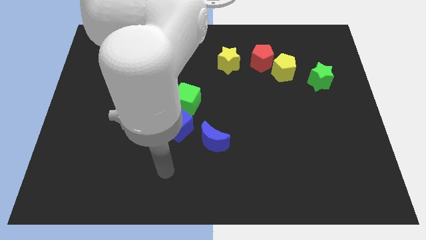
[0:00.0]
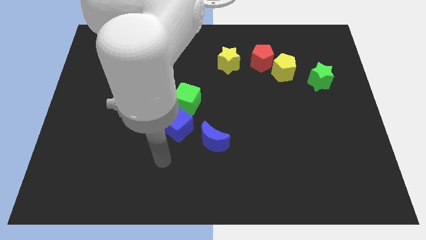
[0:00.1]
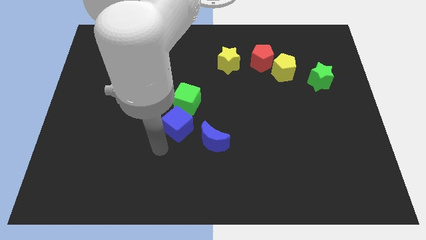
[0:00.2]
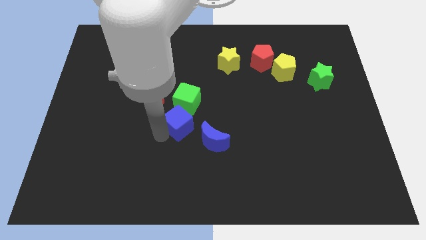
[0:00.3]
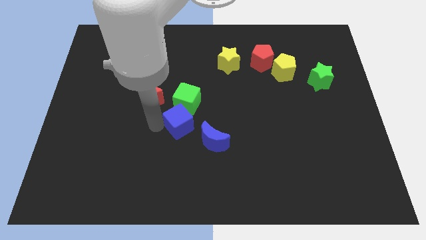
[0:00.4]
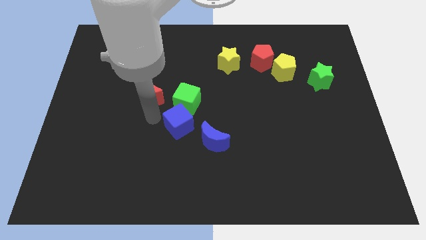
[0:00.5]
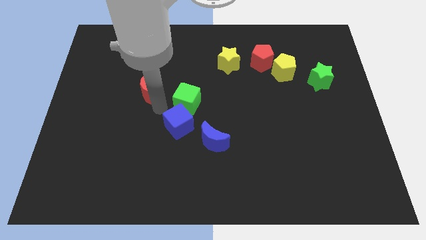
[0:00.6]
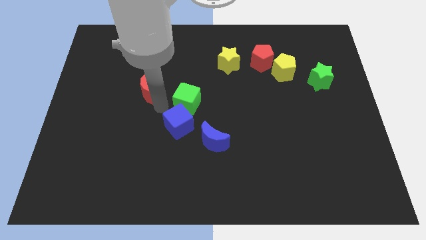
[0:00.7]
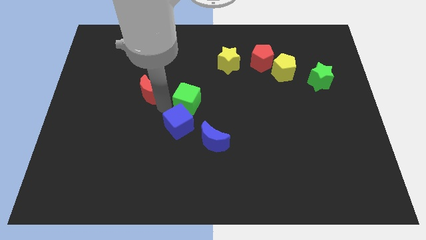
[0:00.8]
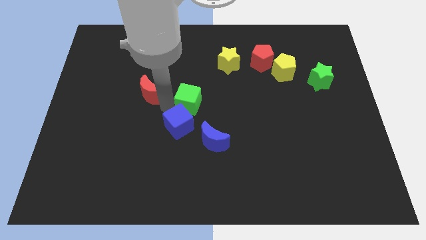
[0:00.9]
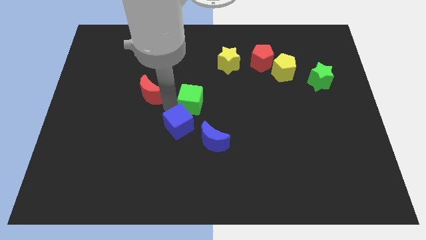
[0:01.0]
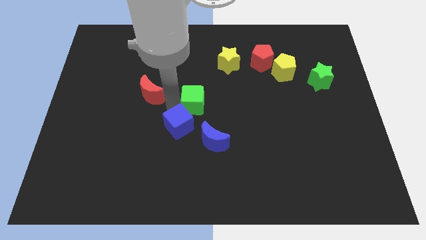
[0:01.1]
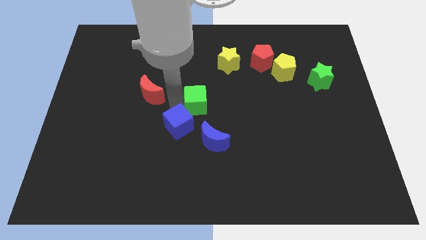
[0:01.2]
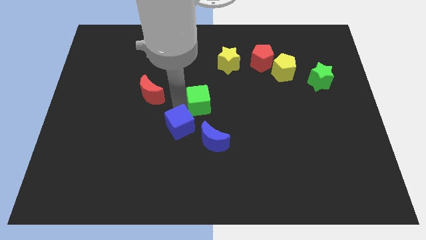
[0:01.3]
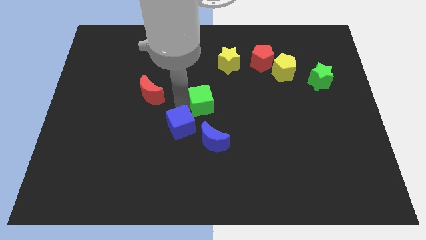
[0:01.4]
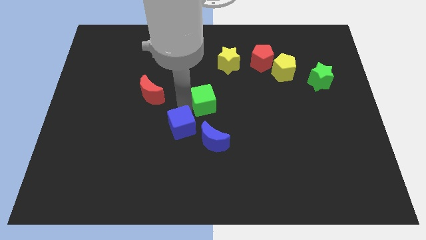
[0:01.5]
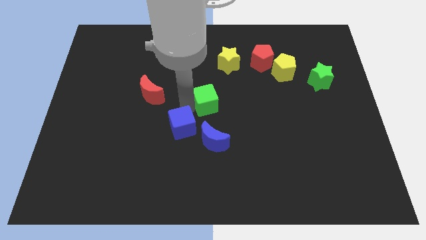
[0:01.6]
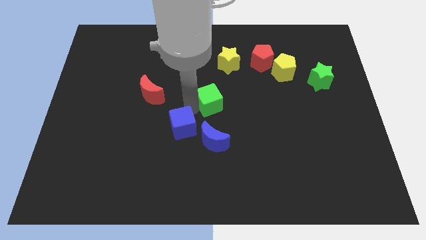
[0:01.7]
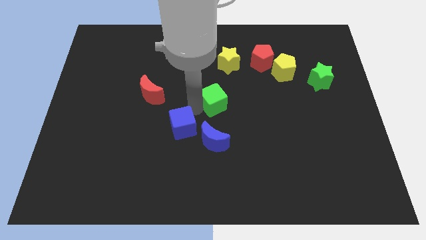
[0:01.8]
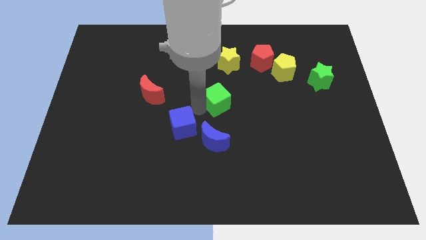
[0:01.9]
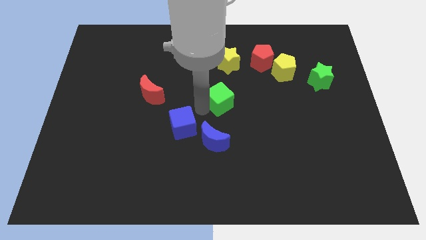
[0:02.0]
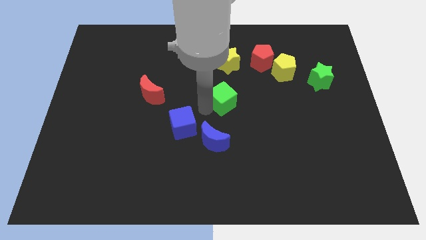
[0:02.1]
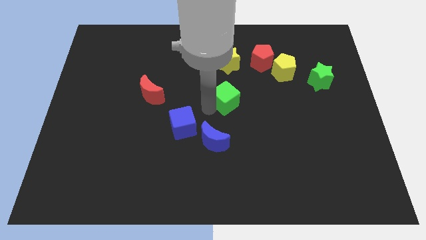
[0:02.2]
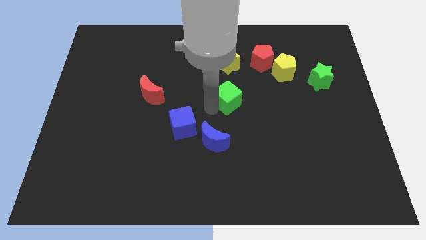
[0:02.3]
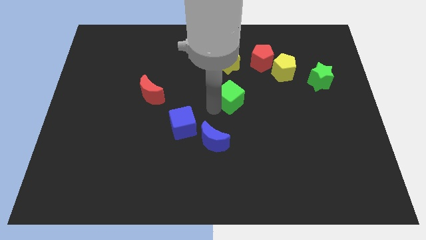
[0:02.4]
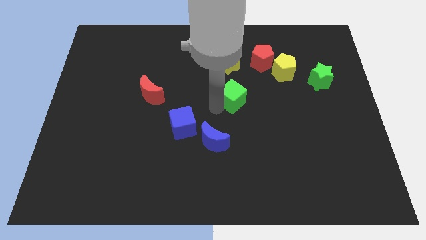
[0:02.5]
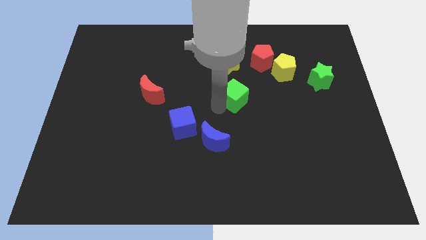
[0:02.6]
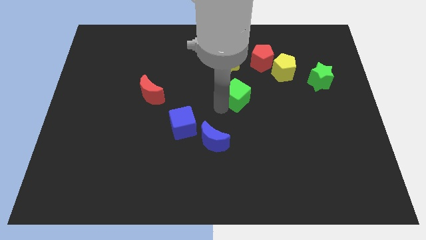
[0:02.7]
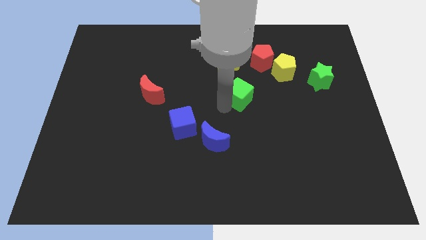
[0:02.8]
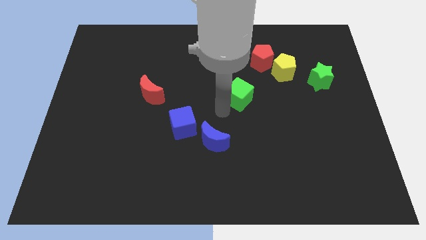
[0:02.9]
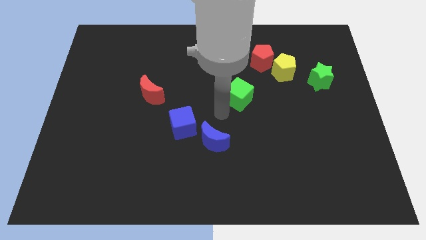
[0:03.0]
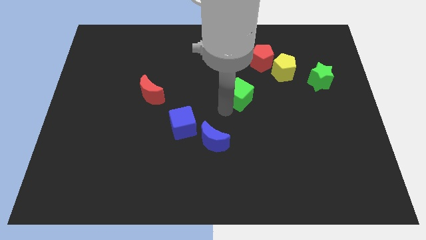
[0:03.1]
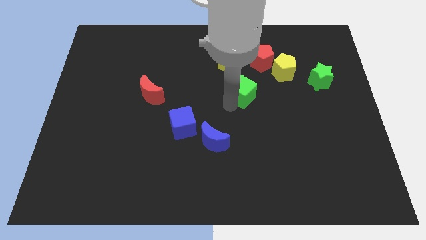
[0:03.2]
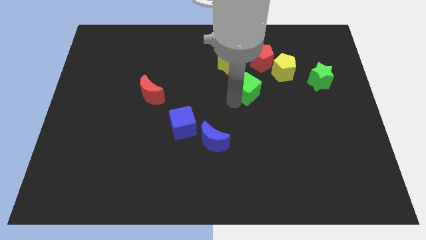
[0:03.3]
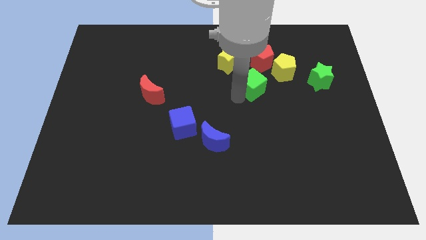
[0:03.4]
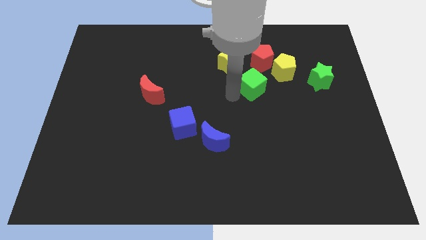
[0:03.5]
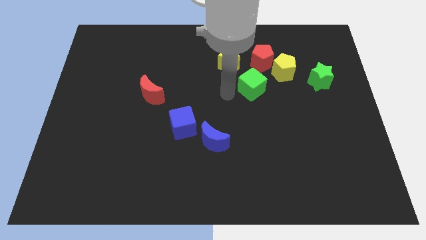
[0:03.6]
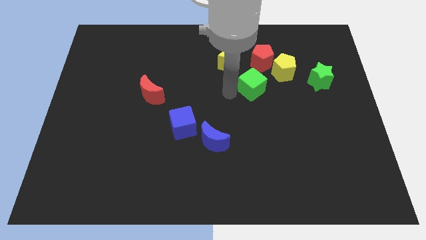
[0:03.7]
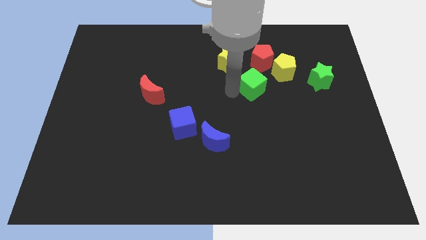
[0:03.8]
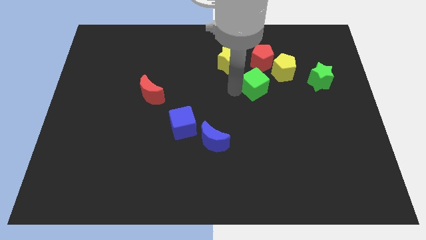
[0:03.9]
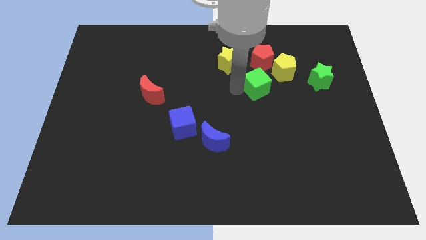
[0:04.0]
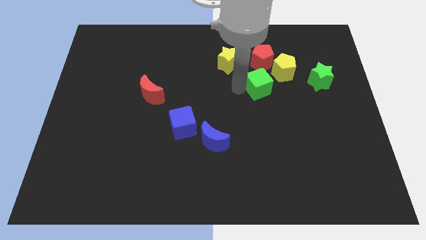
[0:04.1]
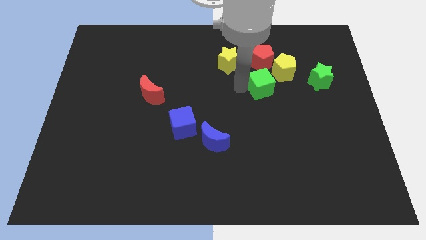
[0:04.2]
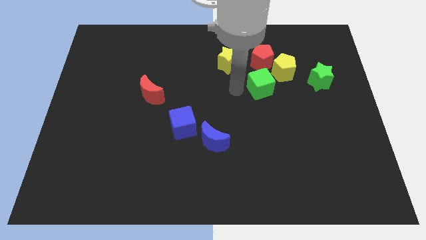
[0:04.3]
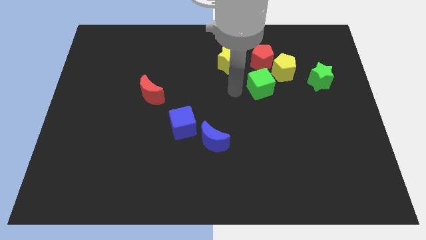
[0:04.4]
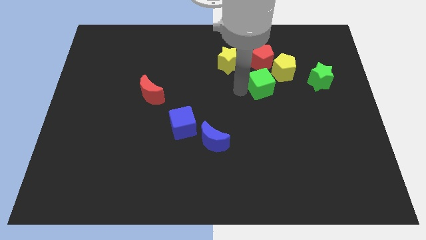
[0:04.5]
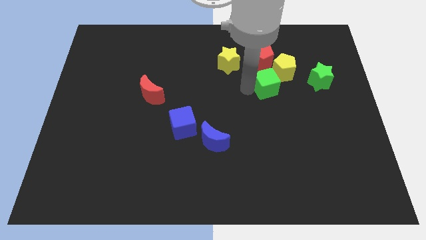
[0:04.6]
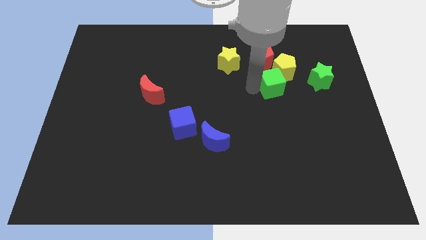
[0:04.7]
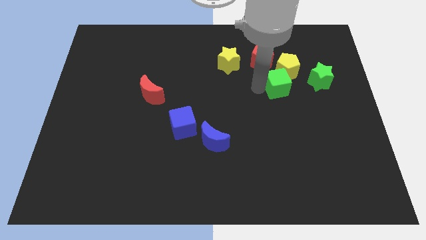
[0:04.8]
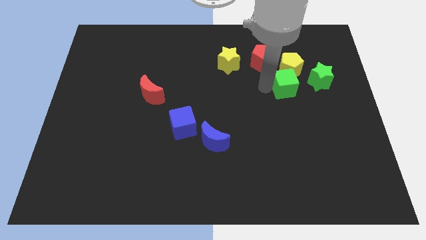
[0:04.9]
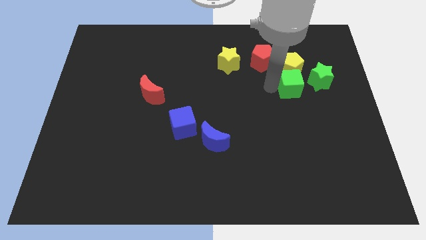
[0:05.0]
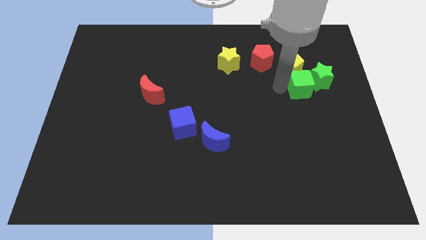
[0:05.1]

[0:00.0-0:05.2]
put the green cube next to the green star

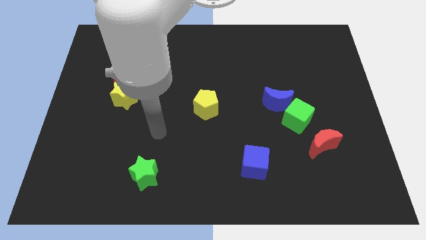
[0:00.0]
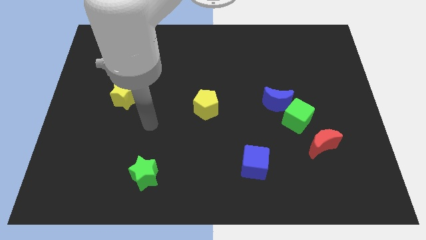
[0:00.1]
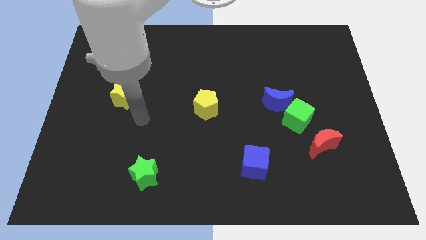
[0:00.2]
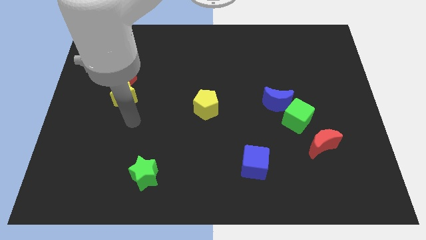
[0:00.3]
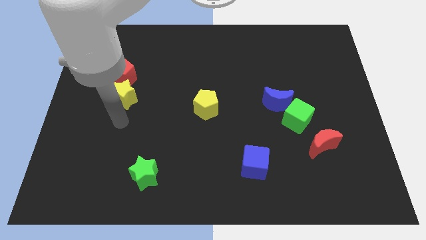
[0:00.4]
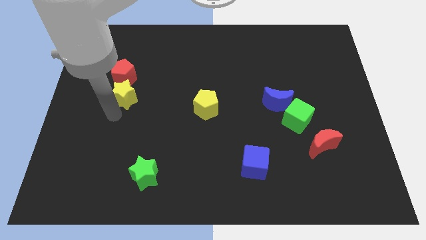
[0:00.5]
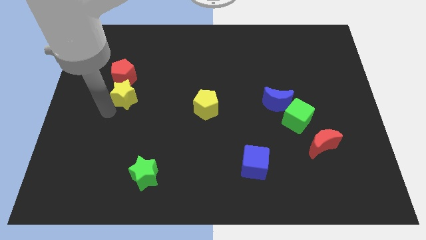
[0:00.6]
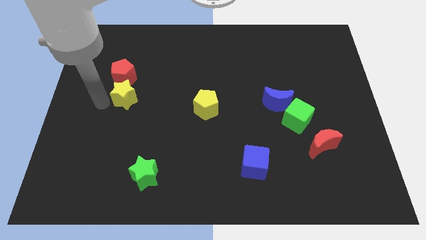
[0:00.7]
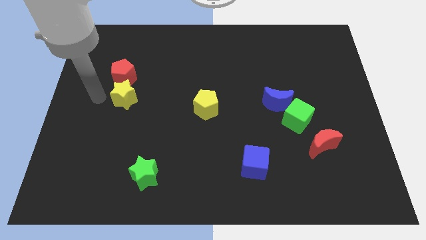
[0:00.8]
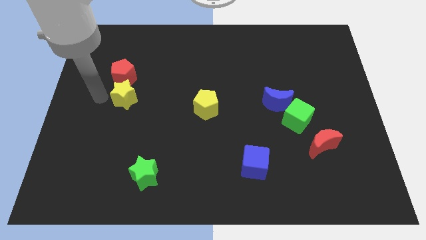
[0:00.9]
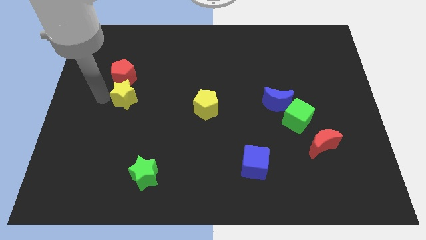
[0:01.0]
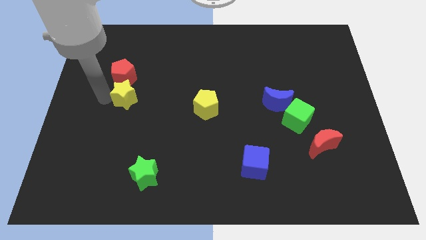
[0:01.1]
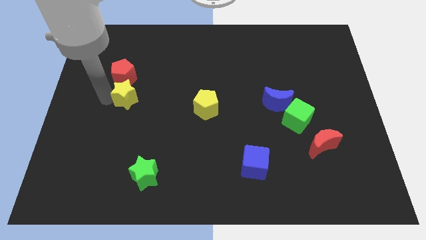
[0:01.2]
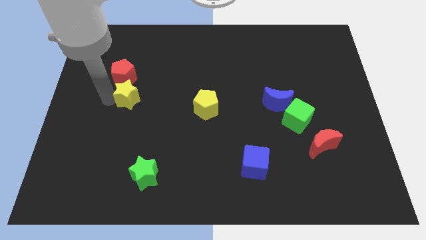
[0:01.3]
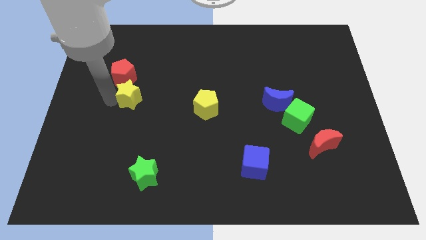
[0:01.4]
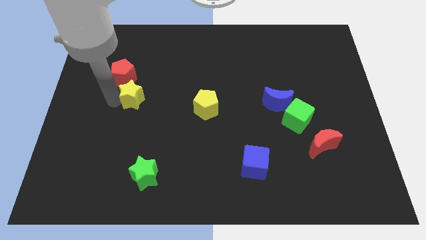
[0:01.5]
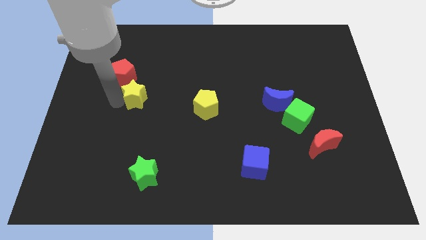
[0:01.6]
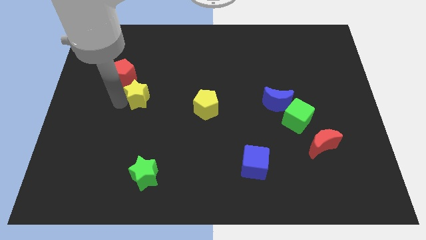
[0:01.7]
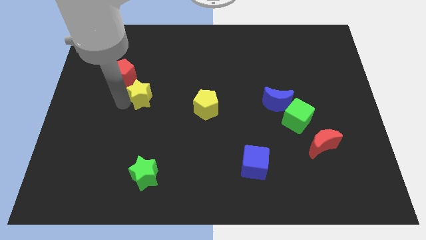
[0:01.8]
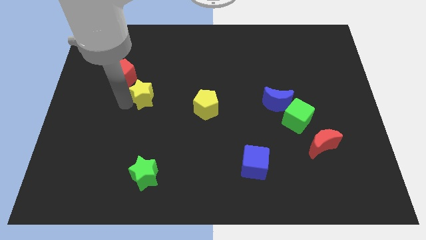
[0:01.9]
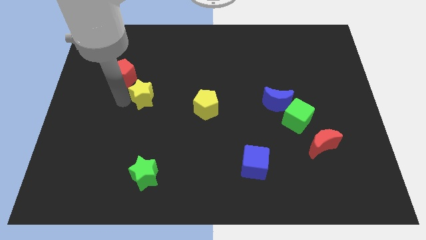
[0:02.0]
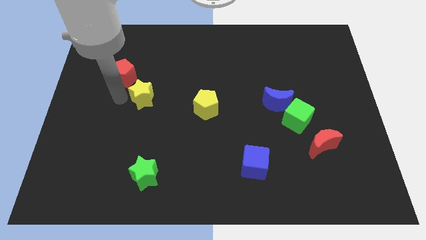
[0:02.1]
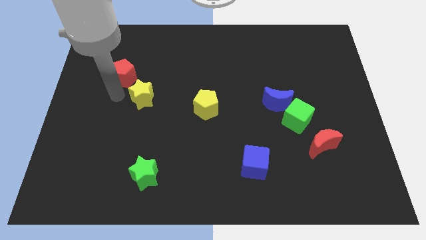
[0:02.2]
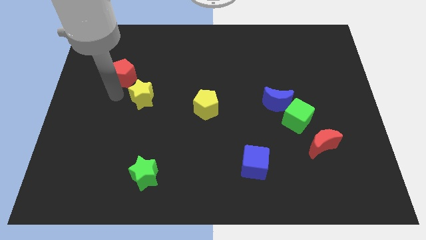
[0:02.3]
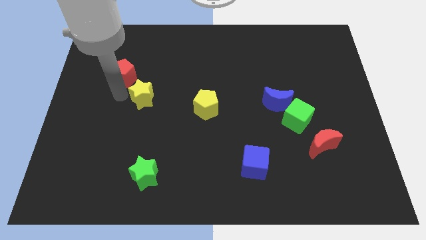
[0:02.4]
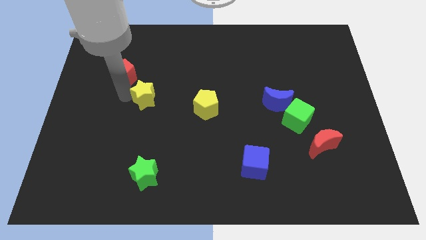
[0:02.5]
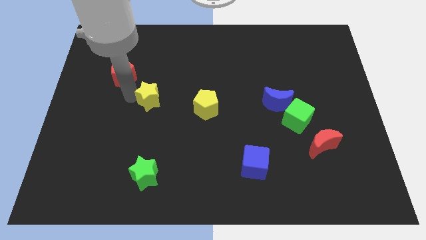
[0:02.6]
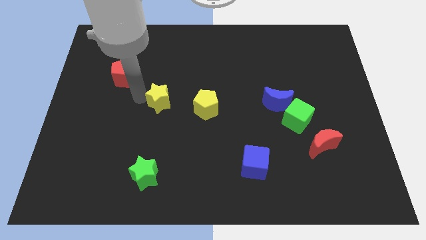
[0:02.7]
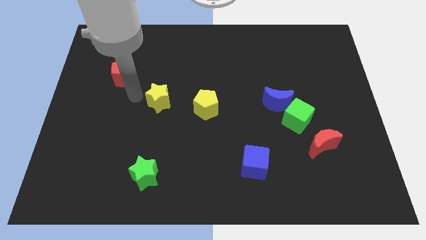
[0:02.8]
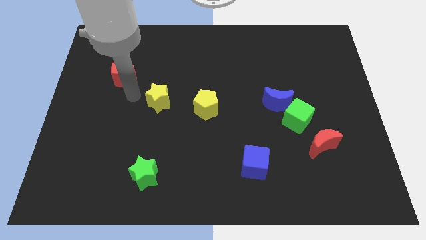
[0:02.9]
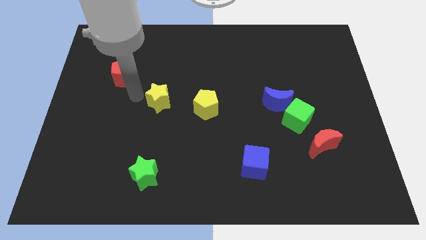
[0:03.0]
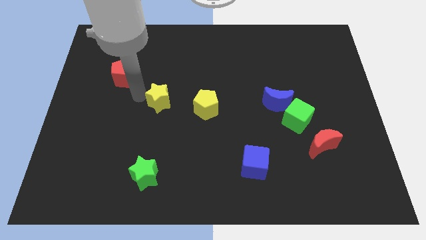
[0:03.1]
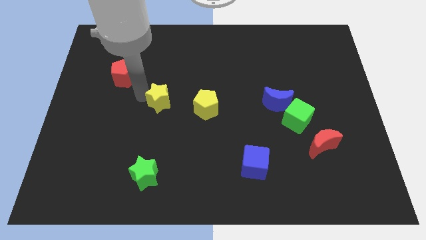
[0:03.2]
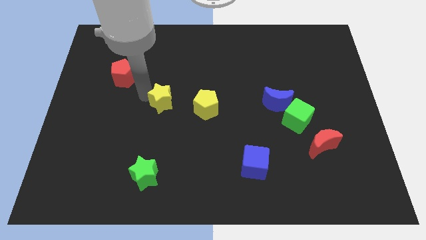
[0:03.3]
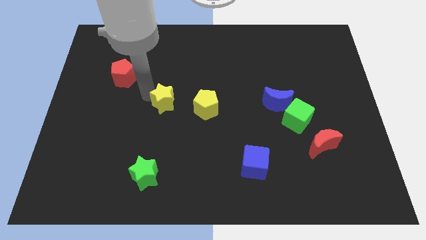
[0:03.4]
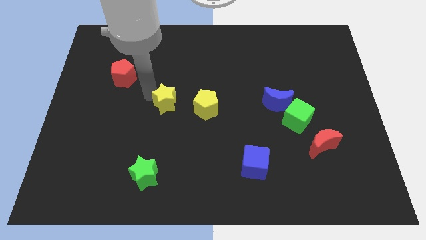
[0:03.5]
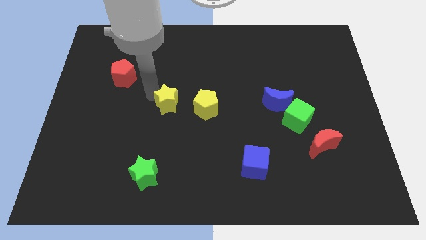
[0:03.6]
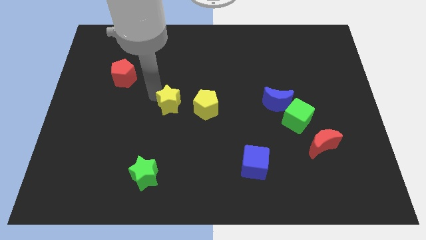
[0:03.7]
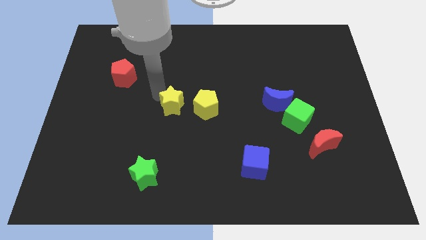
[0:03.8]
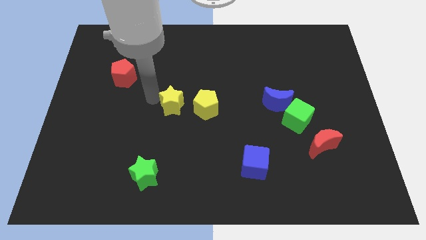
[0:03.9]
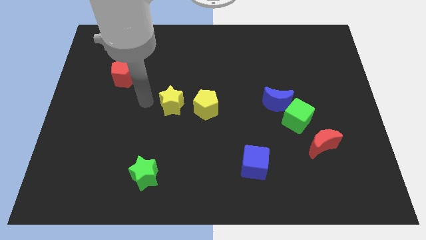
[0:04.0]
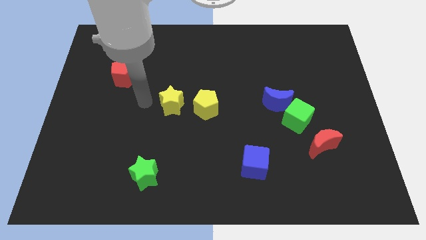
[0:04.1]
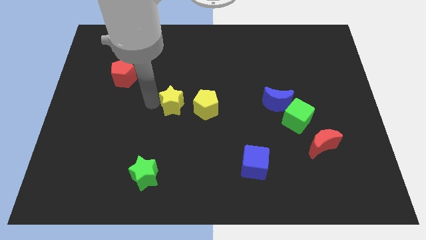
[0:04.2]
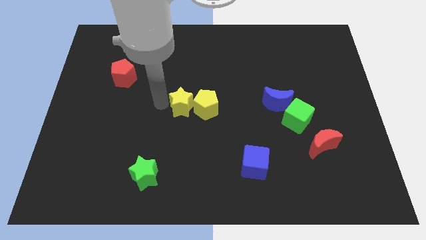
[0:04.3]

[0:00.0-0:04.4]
put the yellow star next to the yellow pentagon
